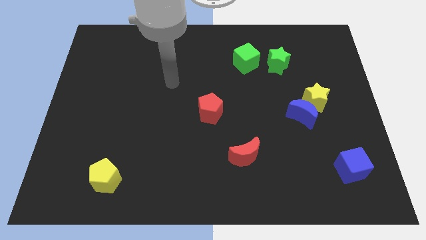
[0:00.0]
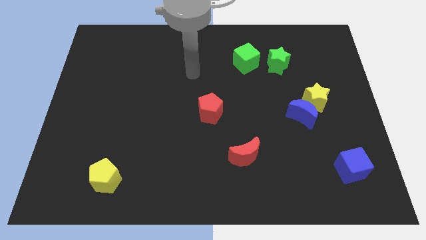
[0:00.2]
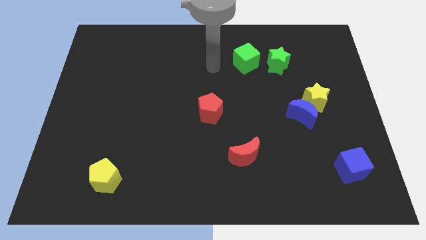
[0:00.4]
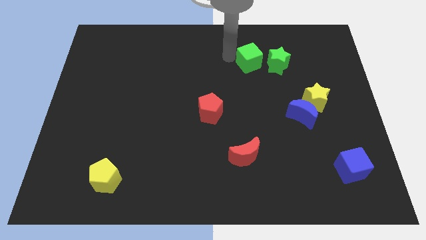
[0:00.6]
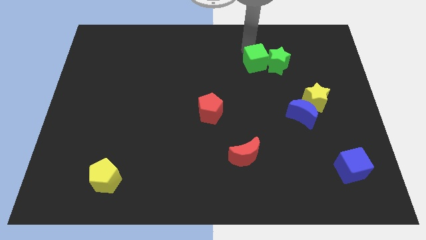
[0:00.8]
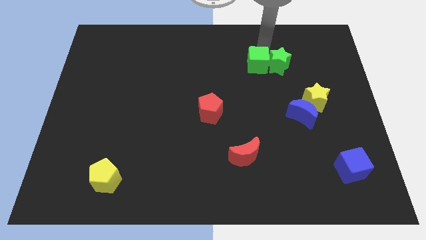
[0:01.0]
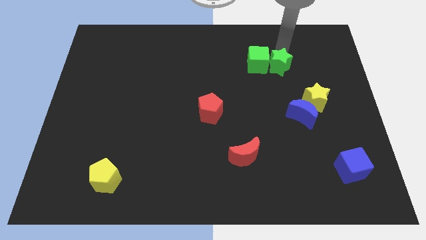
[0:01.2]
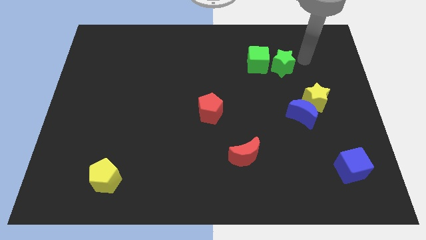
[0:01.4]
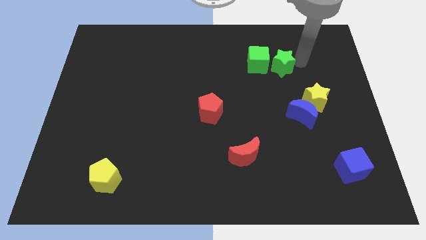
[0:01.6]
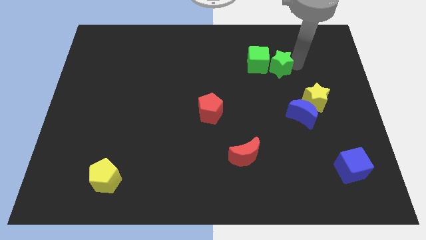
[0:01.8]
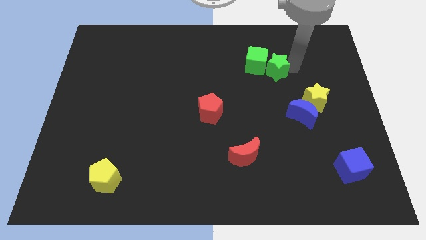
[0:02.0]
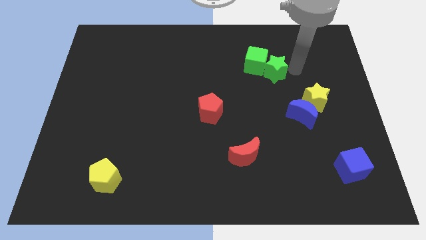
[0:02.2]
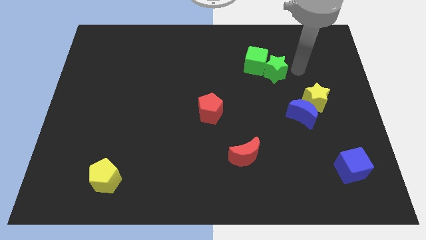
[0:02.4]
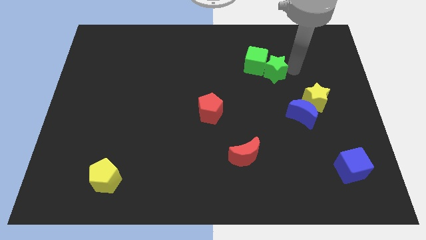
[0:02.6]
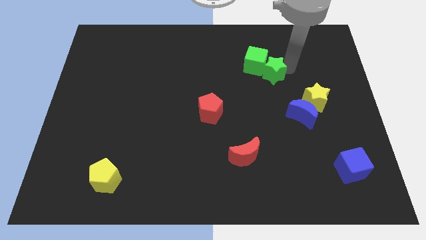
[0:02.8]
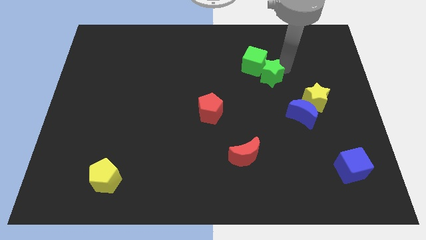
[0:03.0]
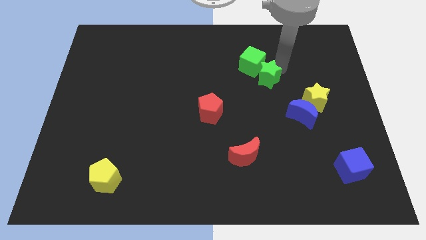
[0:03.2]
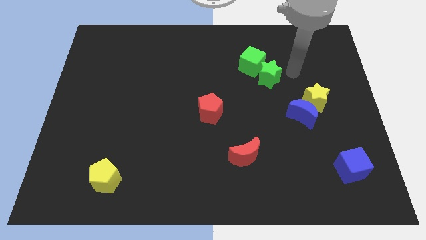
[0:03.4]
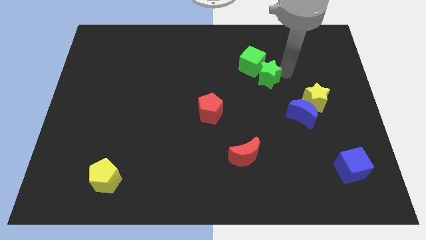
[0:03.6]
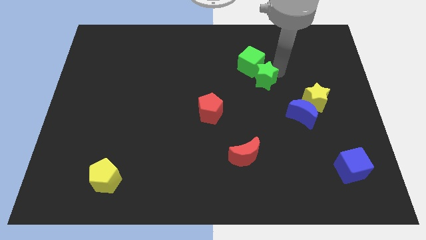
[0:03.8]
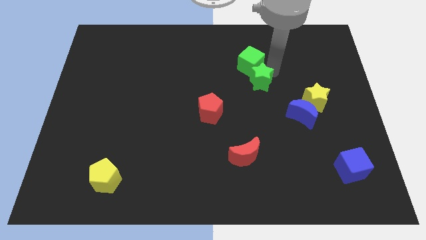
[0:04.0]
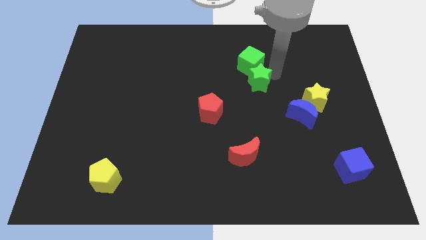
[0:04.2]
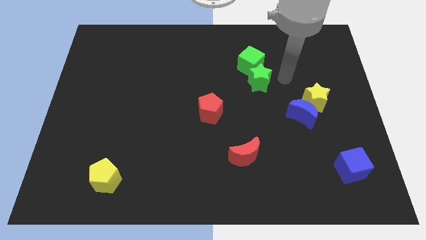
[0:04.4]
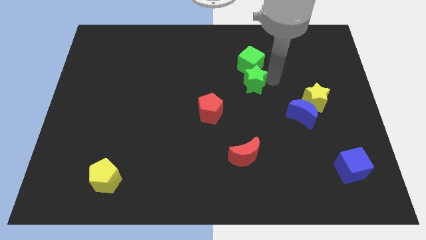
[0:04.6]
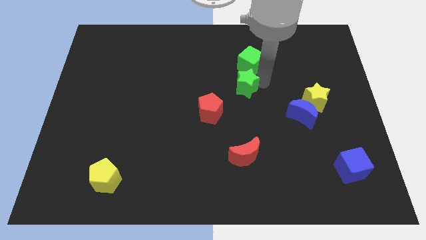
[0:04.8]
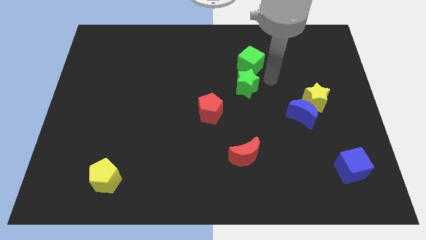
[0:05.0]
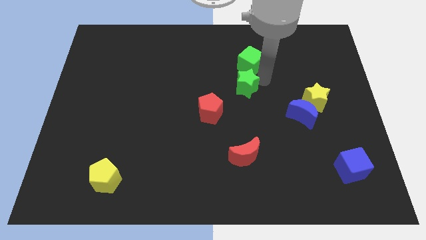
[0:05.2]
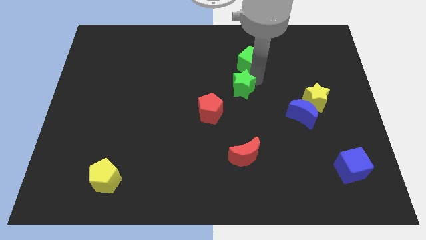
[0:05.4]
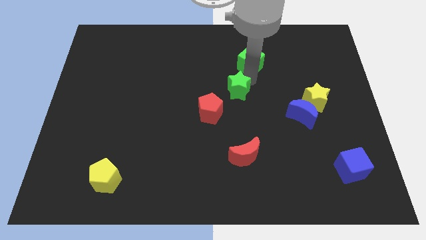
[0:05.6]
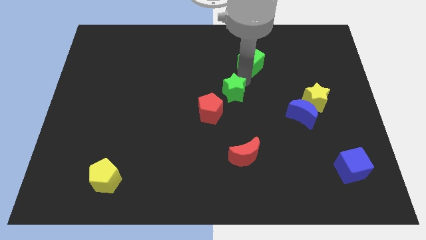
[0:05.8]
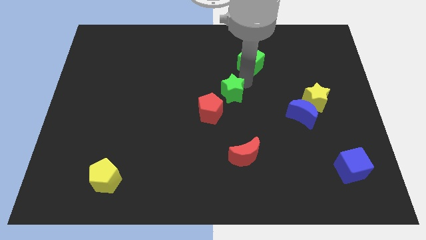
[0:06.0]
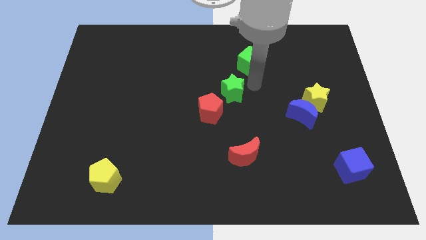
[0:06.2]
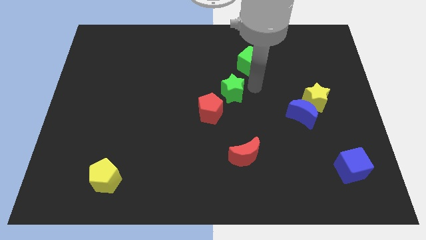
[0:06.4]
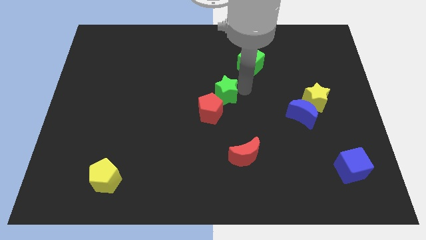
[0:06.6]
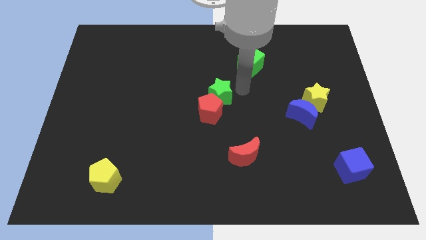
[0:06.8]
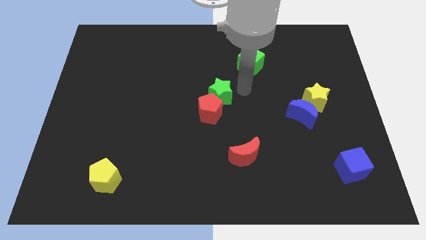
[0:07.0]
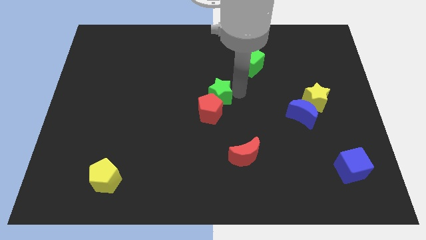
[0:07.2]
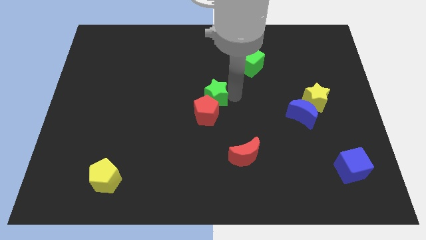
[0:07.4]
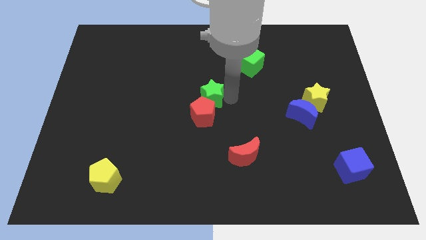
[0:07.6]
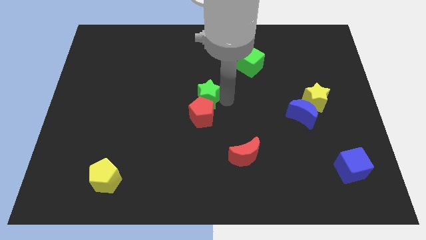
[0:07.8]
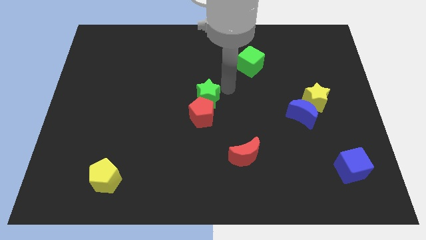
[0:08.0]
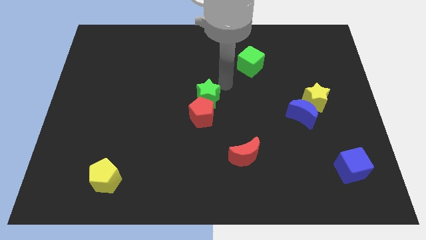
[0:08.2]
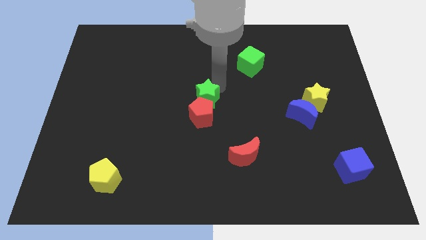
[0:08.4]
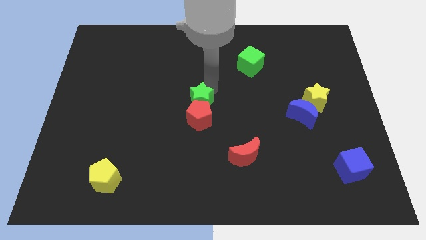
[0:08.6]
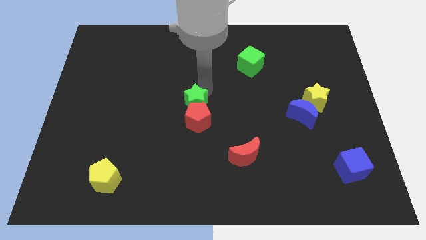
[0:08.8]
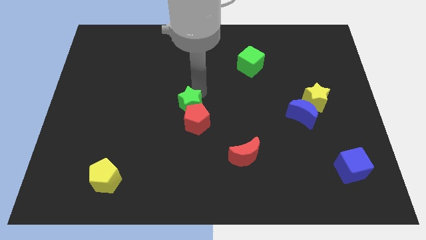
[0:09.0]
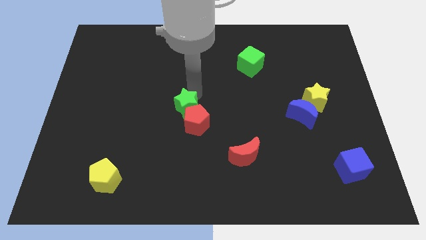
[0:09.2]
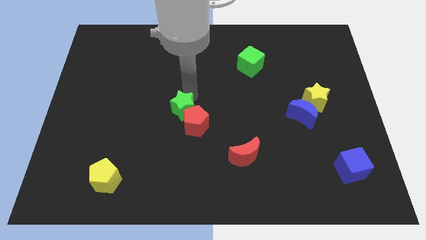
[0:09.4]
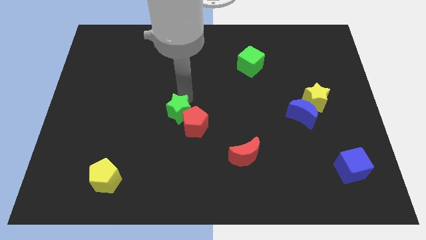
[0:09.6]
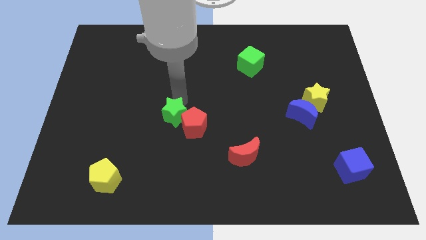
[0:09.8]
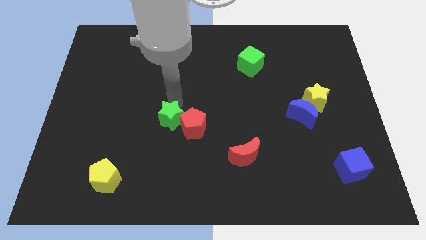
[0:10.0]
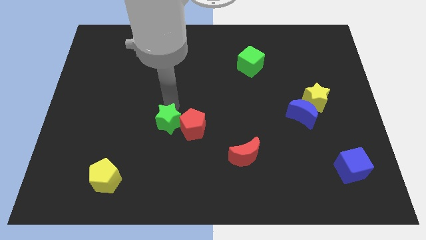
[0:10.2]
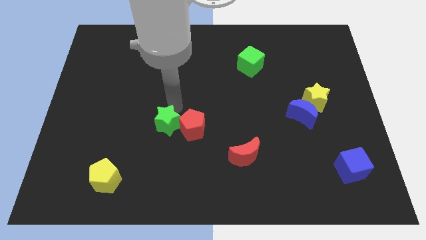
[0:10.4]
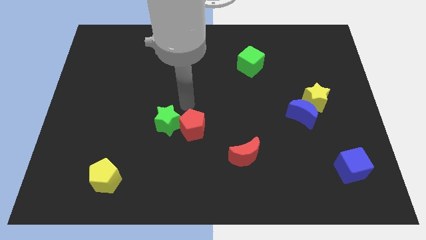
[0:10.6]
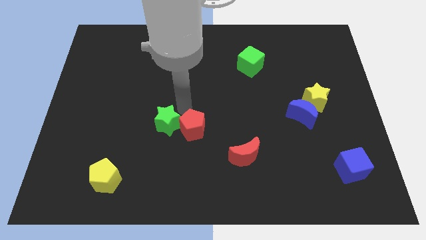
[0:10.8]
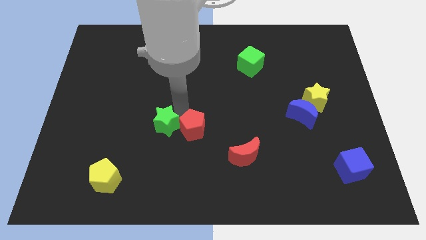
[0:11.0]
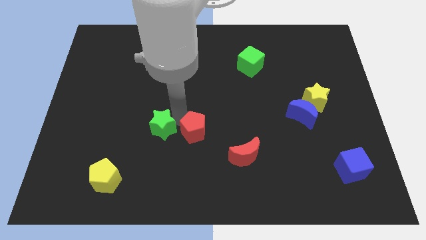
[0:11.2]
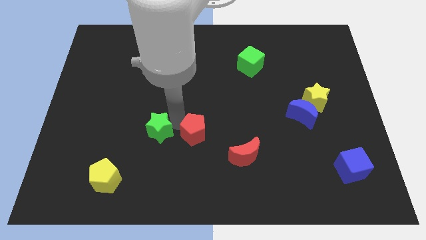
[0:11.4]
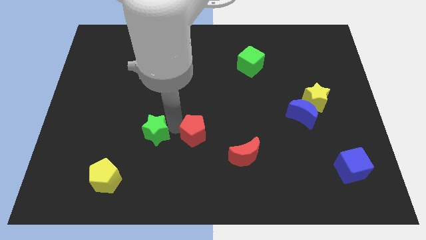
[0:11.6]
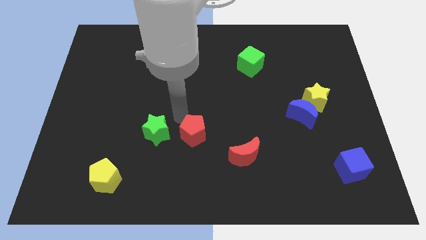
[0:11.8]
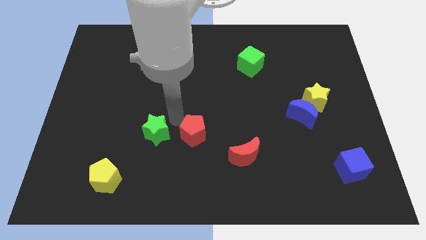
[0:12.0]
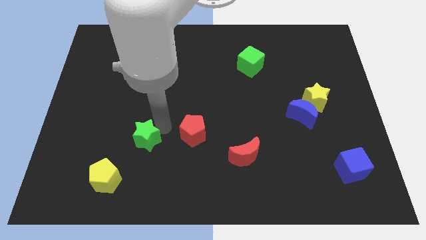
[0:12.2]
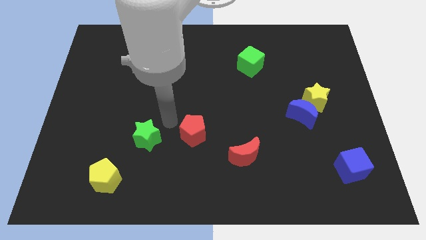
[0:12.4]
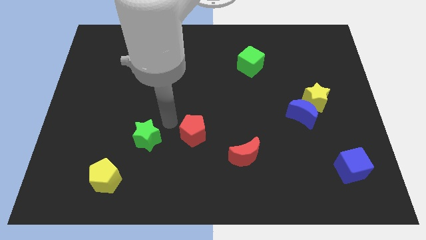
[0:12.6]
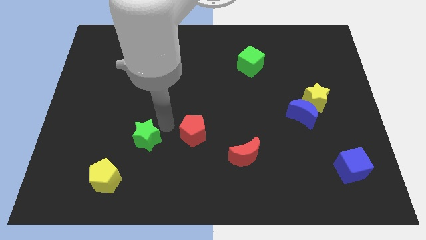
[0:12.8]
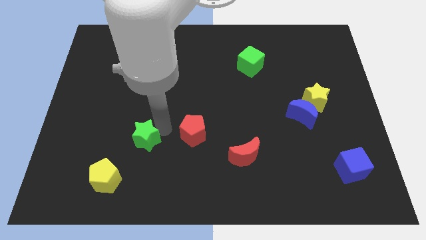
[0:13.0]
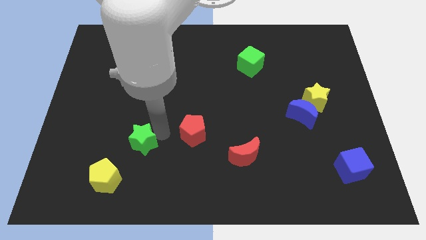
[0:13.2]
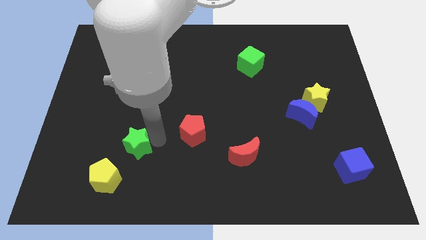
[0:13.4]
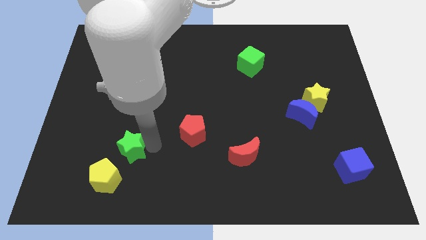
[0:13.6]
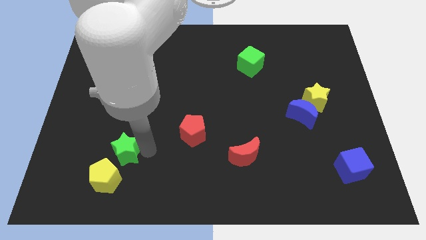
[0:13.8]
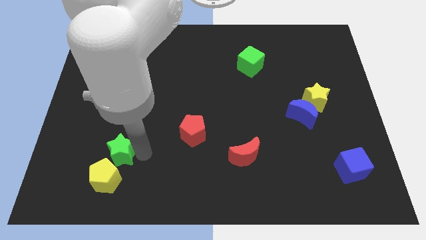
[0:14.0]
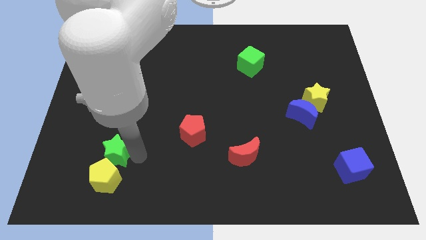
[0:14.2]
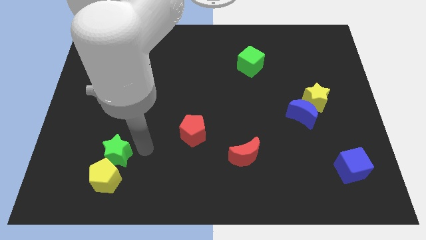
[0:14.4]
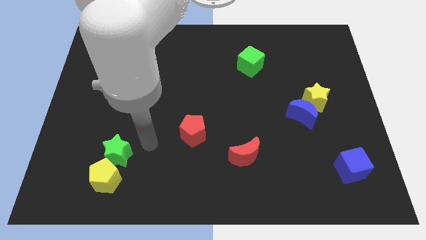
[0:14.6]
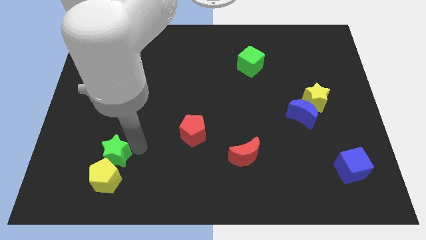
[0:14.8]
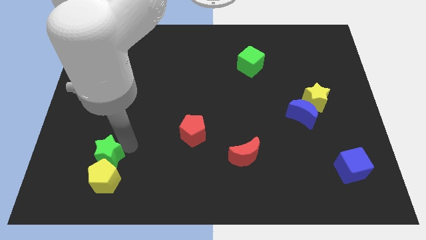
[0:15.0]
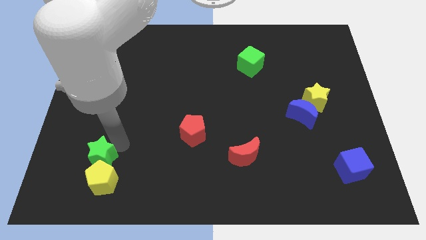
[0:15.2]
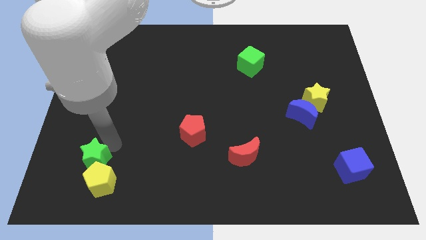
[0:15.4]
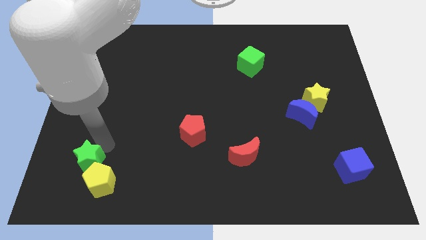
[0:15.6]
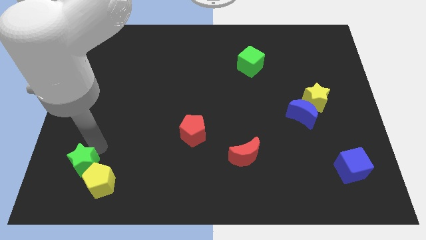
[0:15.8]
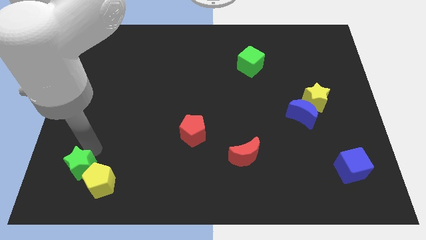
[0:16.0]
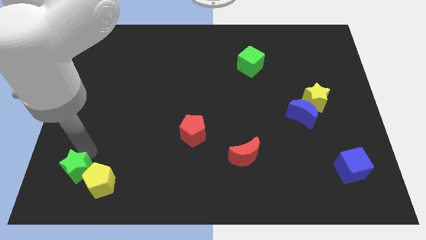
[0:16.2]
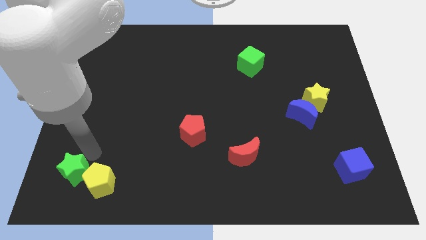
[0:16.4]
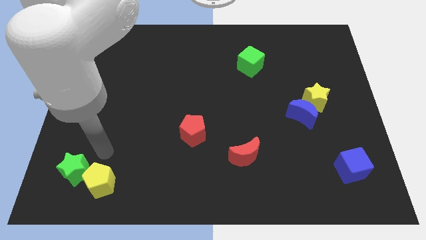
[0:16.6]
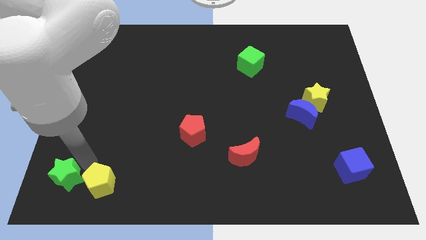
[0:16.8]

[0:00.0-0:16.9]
move the green star to the bottom left
